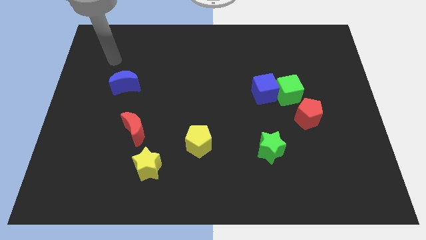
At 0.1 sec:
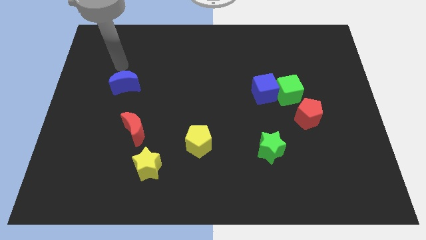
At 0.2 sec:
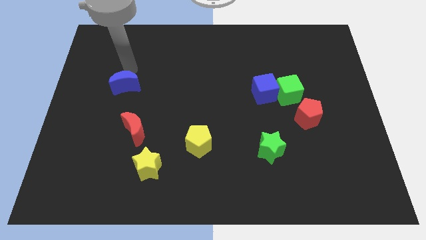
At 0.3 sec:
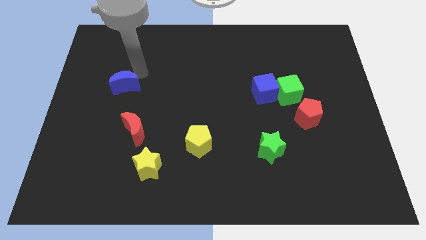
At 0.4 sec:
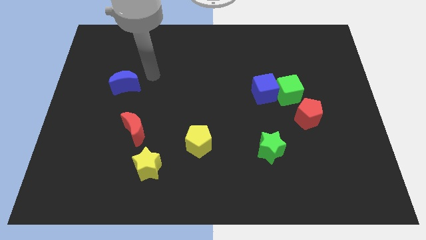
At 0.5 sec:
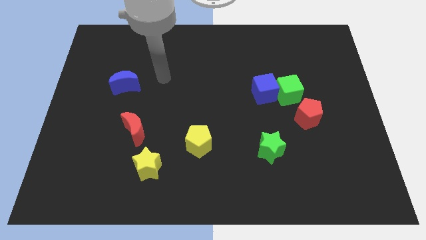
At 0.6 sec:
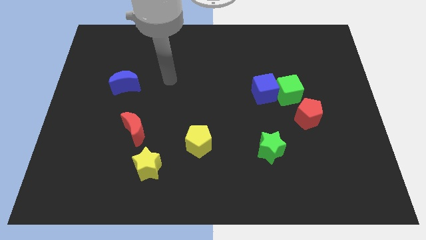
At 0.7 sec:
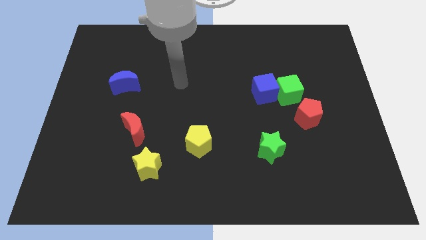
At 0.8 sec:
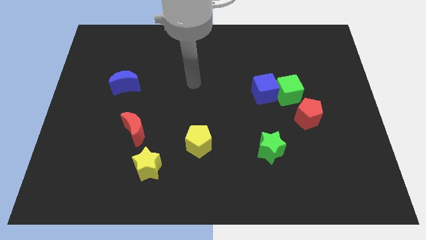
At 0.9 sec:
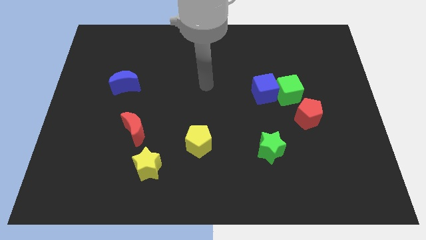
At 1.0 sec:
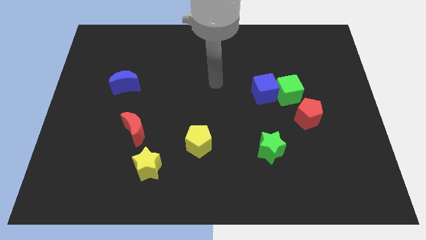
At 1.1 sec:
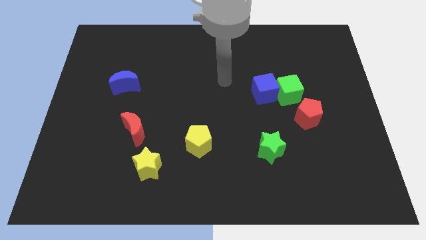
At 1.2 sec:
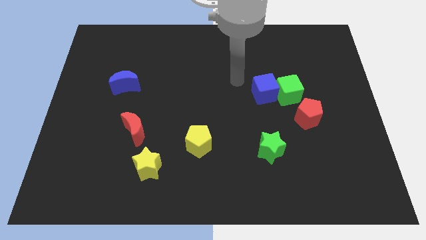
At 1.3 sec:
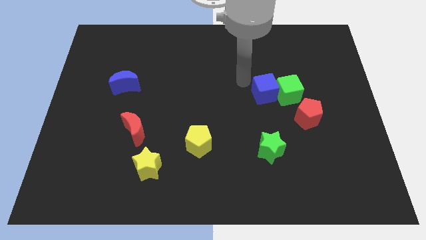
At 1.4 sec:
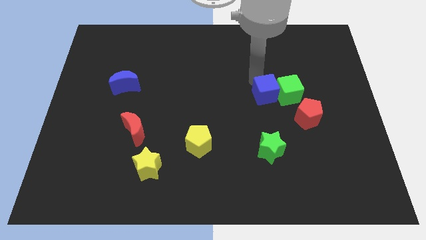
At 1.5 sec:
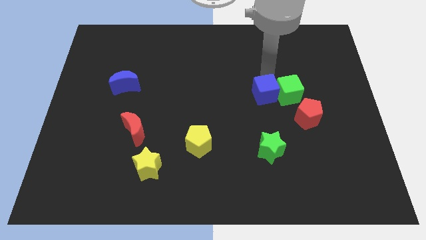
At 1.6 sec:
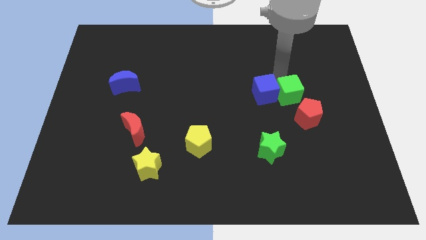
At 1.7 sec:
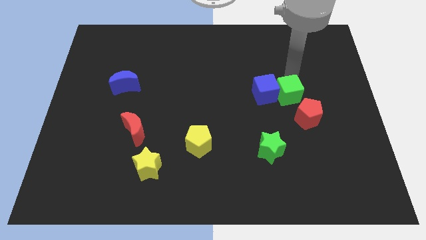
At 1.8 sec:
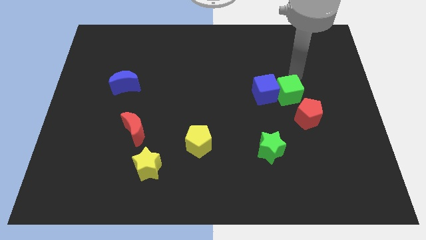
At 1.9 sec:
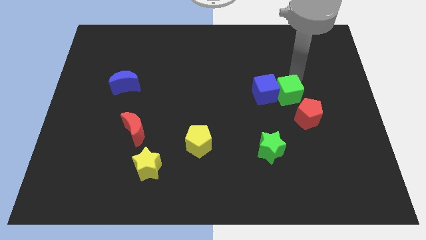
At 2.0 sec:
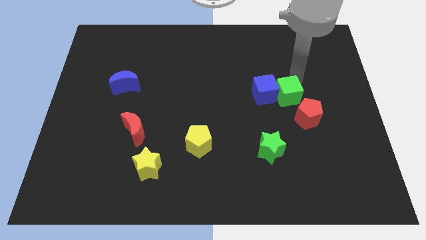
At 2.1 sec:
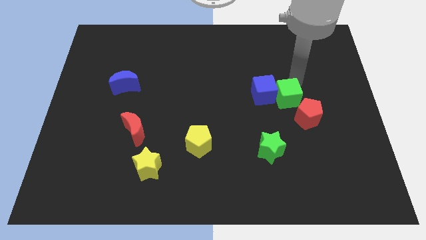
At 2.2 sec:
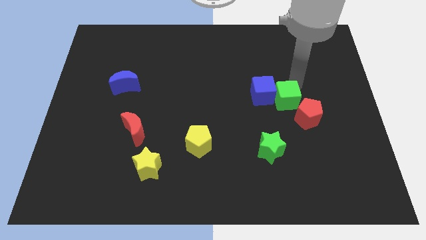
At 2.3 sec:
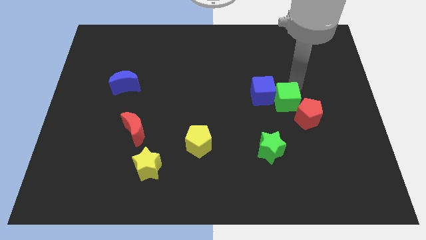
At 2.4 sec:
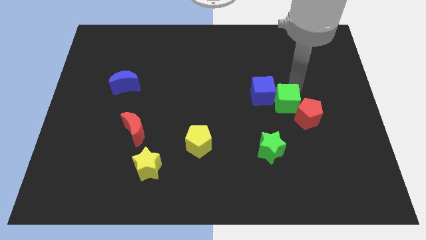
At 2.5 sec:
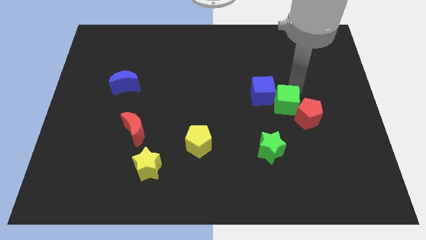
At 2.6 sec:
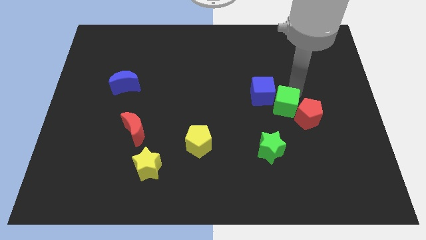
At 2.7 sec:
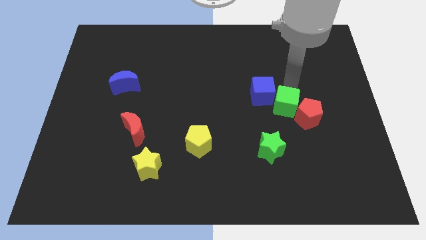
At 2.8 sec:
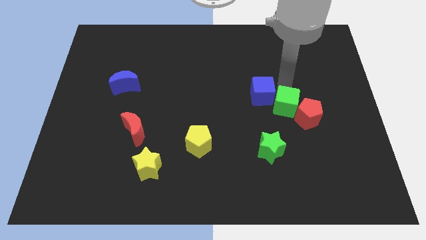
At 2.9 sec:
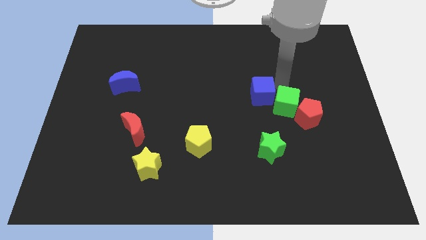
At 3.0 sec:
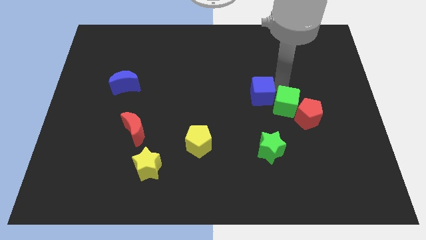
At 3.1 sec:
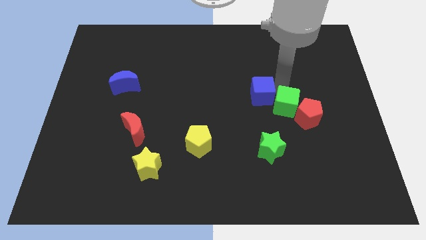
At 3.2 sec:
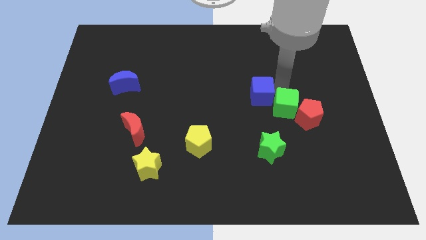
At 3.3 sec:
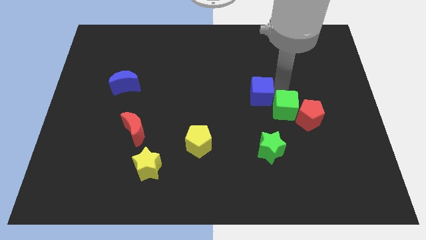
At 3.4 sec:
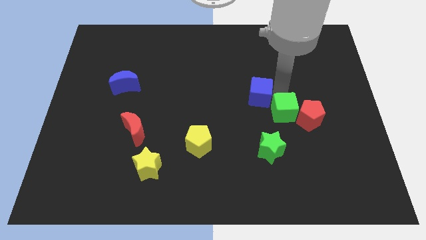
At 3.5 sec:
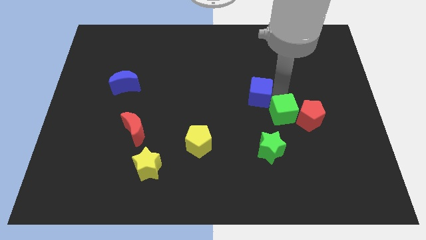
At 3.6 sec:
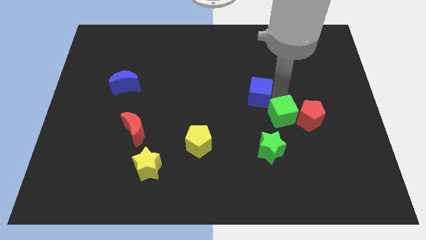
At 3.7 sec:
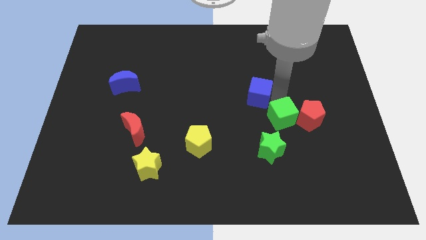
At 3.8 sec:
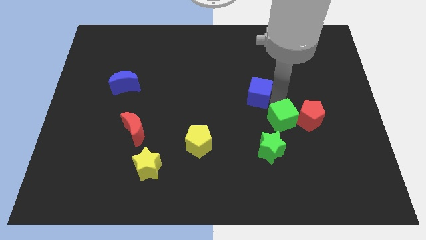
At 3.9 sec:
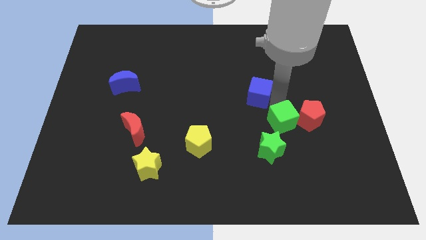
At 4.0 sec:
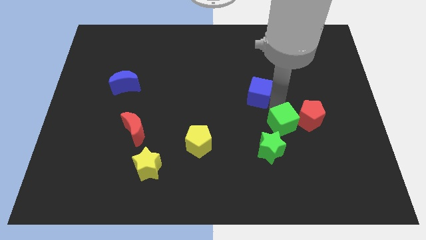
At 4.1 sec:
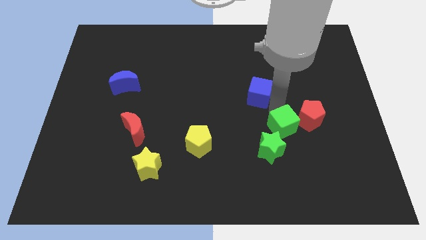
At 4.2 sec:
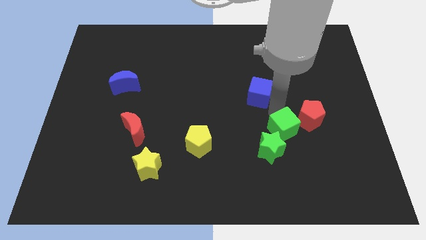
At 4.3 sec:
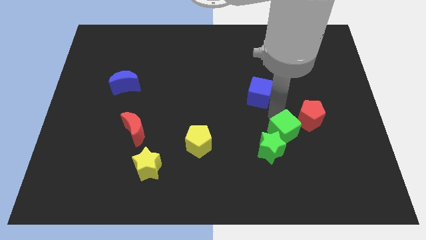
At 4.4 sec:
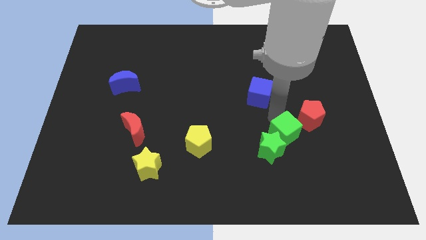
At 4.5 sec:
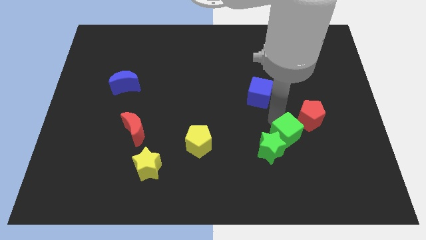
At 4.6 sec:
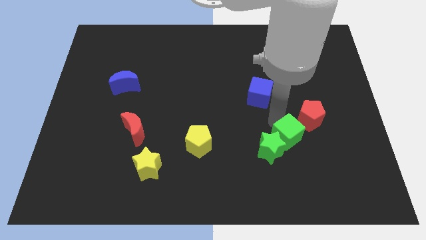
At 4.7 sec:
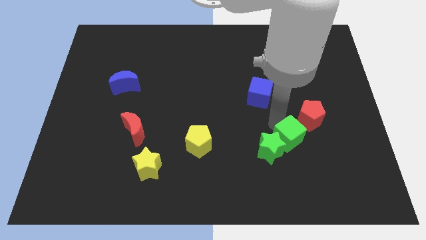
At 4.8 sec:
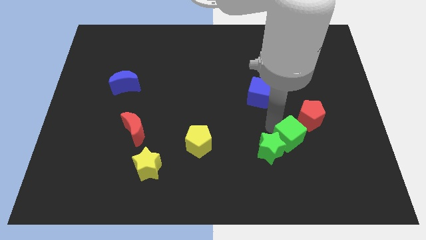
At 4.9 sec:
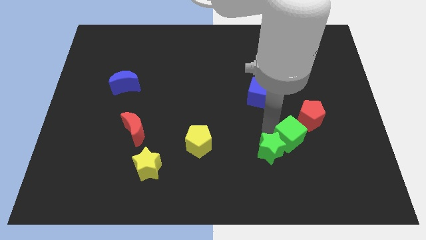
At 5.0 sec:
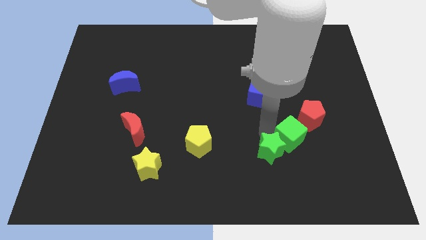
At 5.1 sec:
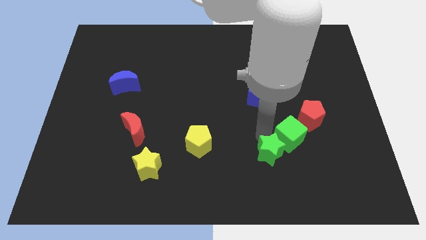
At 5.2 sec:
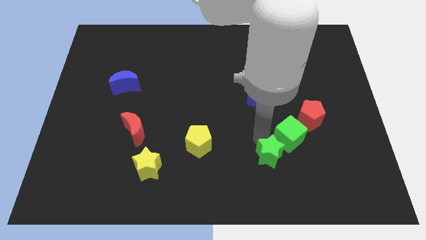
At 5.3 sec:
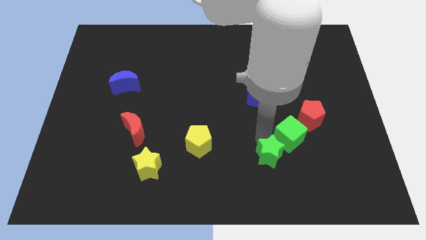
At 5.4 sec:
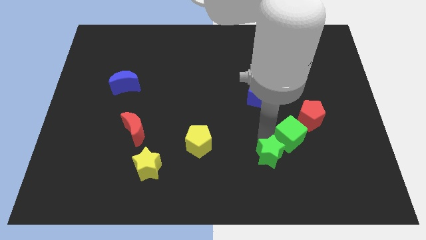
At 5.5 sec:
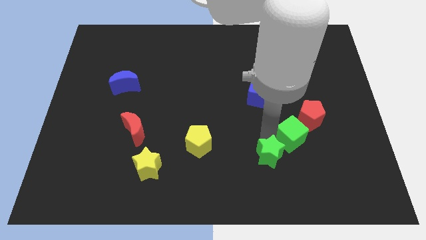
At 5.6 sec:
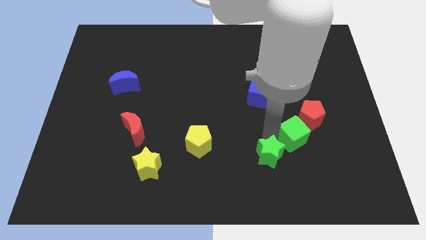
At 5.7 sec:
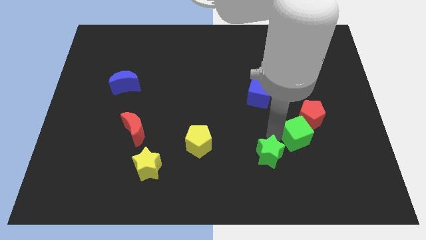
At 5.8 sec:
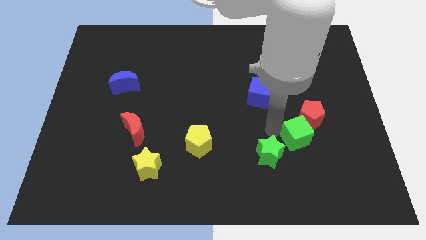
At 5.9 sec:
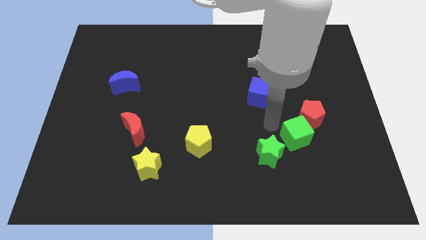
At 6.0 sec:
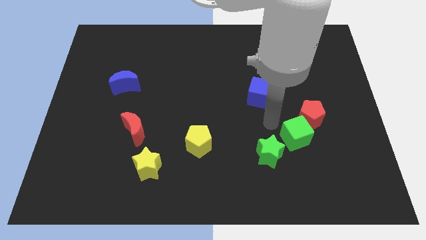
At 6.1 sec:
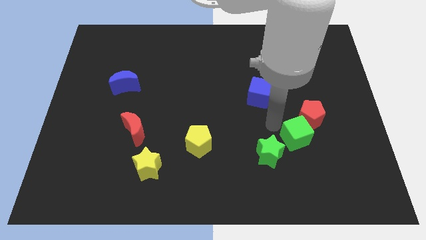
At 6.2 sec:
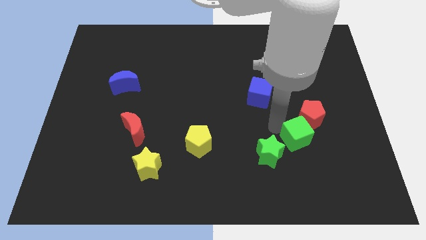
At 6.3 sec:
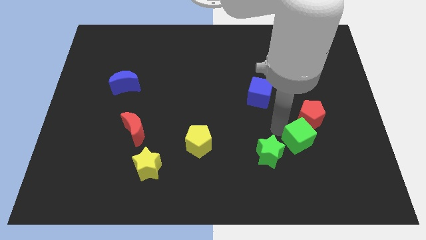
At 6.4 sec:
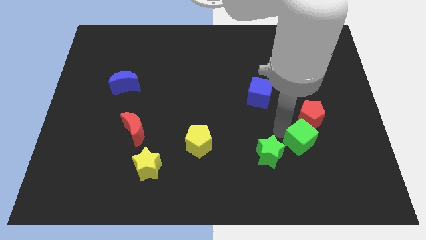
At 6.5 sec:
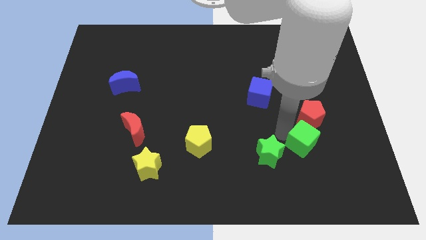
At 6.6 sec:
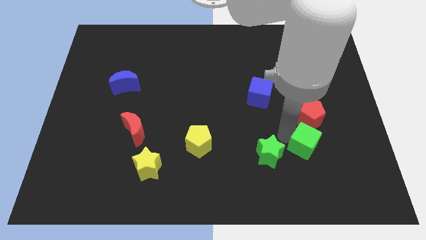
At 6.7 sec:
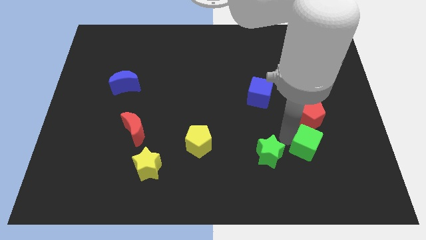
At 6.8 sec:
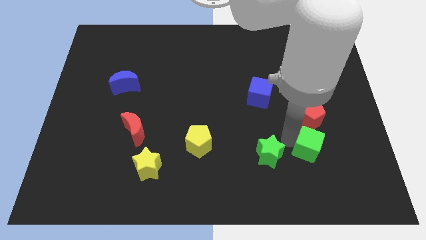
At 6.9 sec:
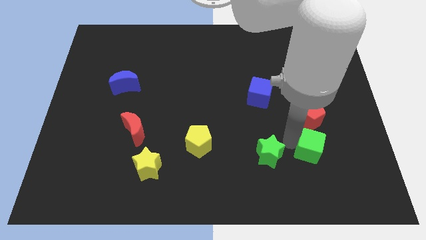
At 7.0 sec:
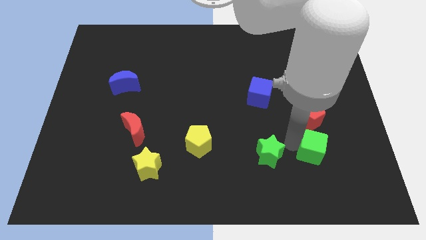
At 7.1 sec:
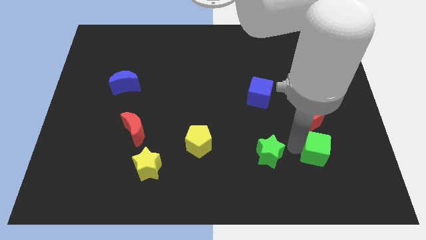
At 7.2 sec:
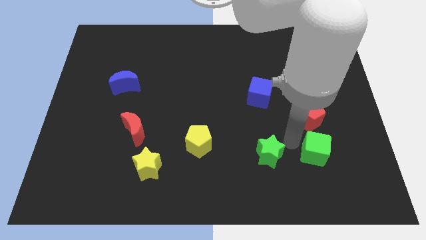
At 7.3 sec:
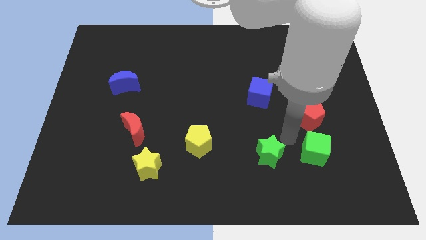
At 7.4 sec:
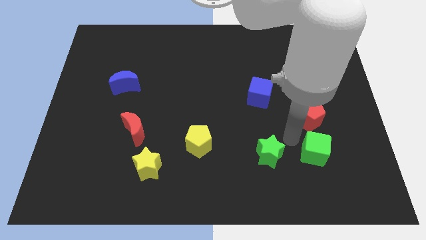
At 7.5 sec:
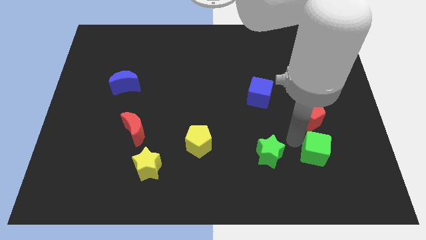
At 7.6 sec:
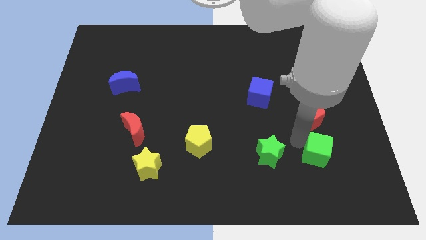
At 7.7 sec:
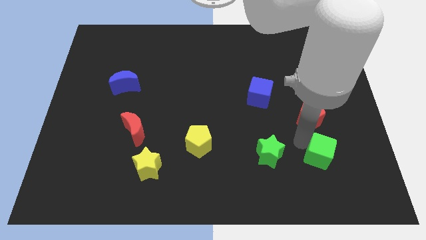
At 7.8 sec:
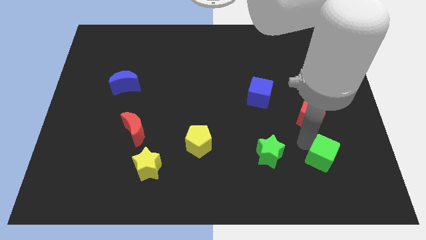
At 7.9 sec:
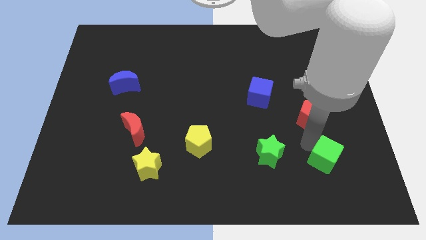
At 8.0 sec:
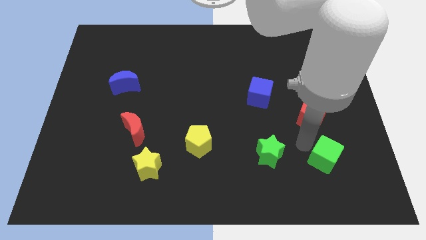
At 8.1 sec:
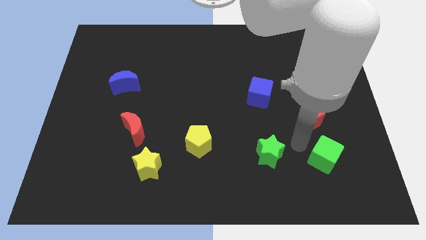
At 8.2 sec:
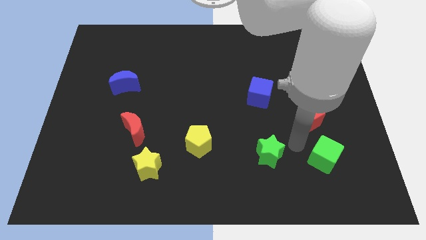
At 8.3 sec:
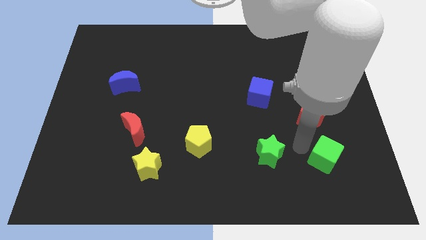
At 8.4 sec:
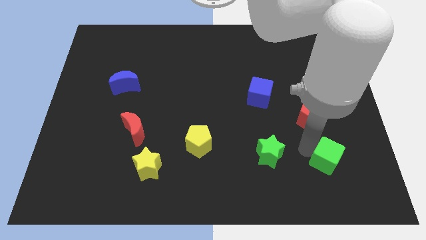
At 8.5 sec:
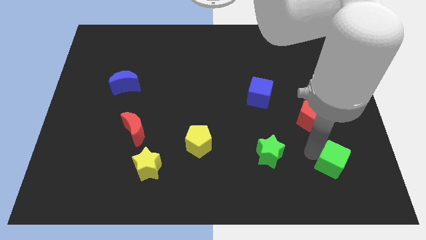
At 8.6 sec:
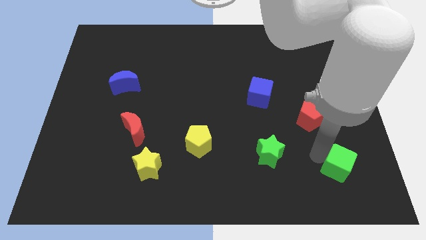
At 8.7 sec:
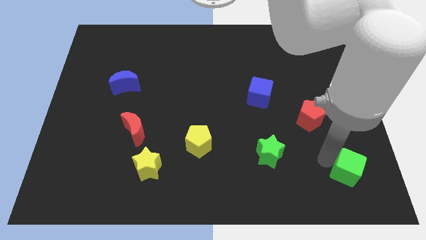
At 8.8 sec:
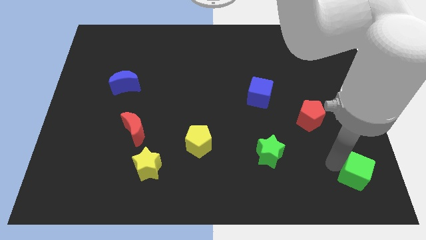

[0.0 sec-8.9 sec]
move the green cube to the bottom right
